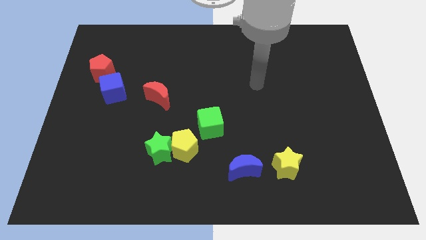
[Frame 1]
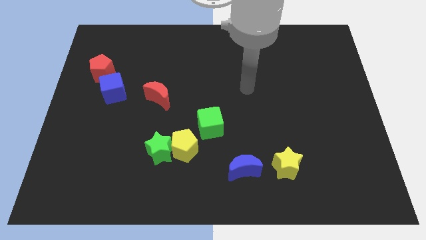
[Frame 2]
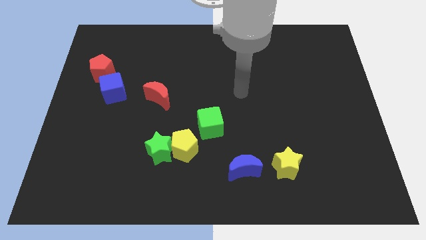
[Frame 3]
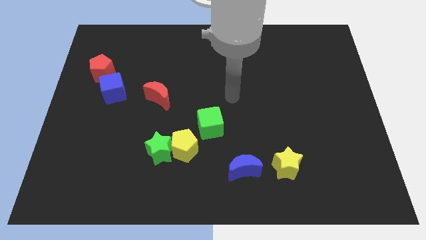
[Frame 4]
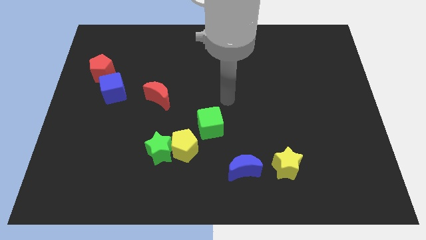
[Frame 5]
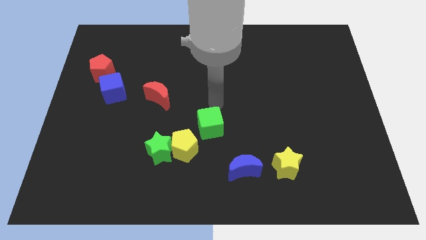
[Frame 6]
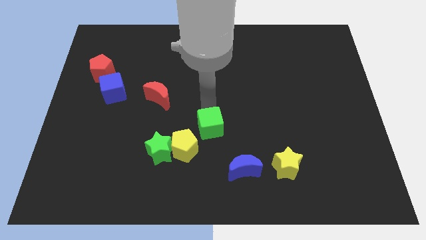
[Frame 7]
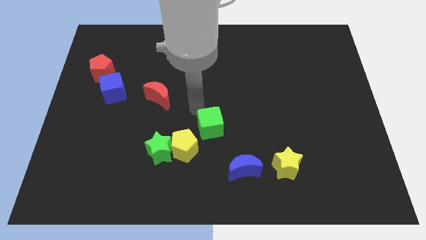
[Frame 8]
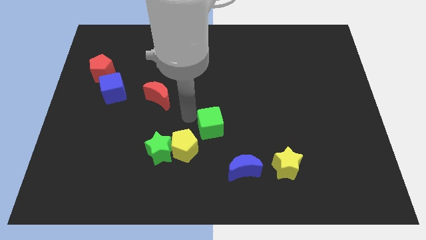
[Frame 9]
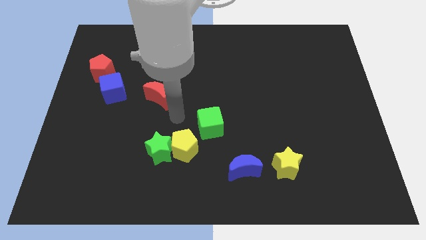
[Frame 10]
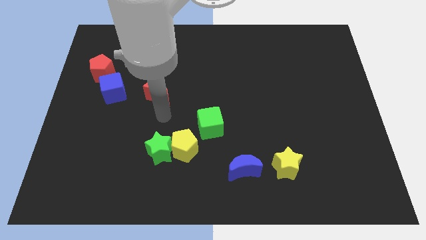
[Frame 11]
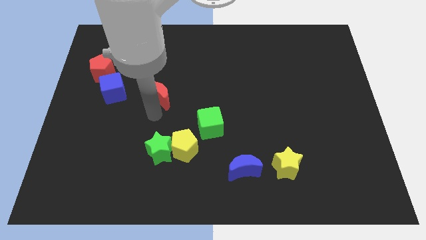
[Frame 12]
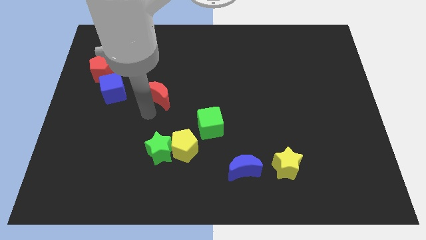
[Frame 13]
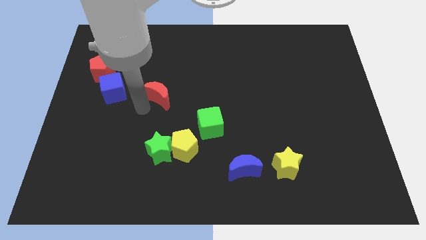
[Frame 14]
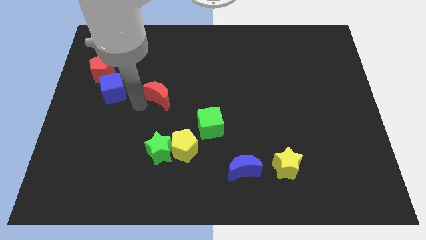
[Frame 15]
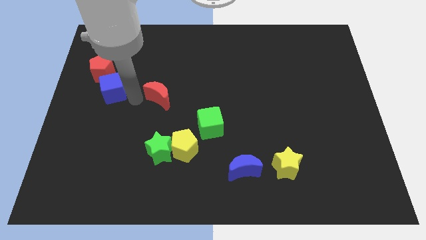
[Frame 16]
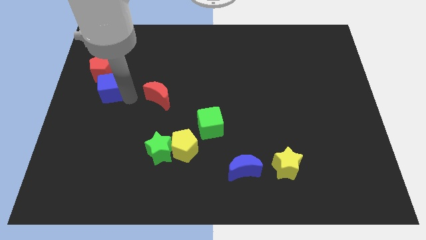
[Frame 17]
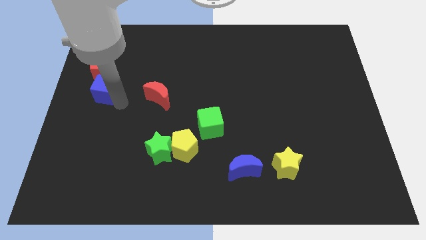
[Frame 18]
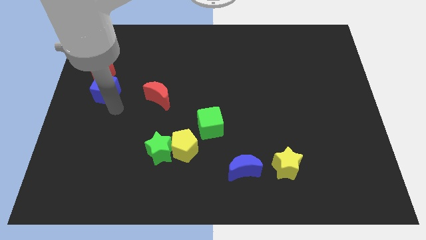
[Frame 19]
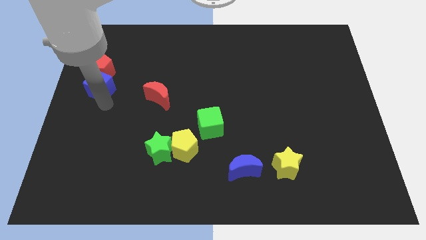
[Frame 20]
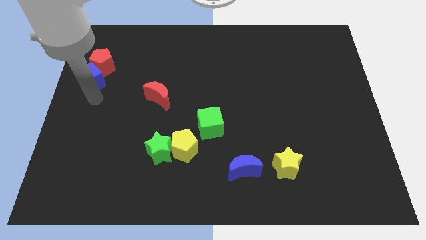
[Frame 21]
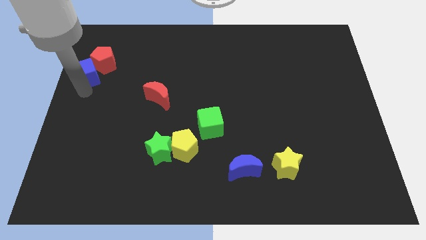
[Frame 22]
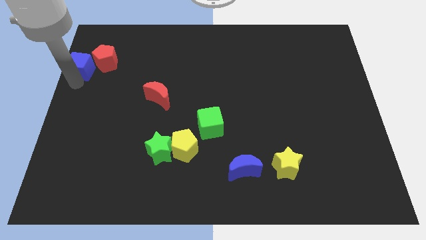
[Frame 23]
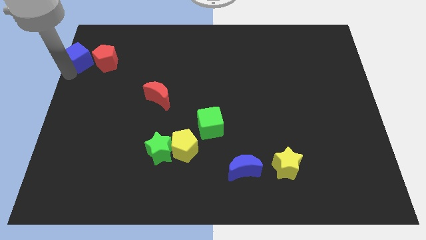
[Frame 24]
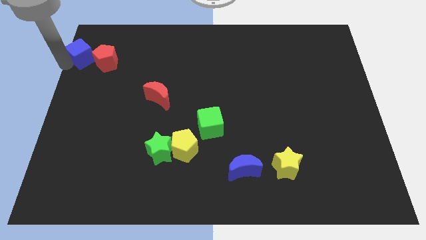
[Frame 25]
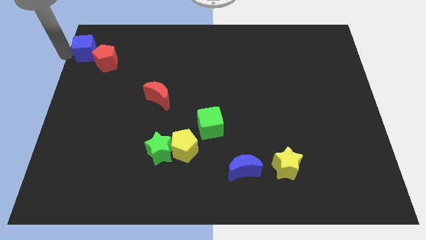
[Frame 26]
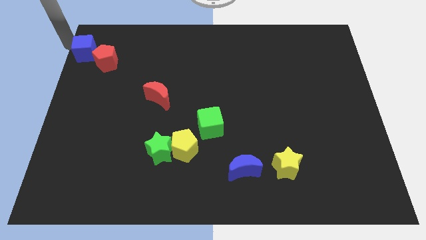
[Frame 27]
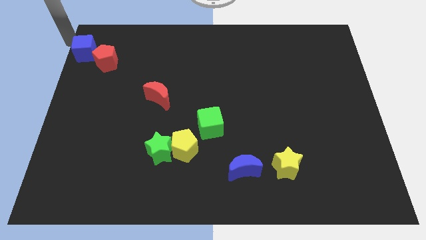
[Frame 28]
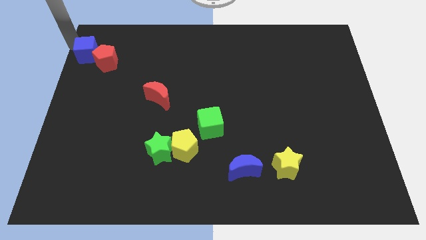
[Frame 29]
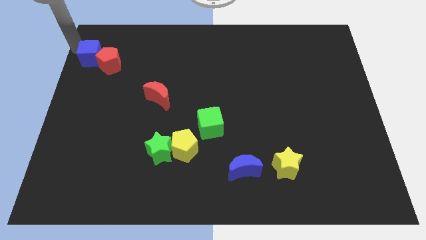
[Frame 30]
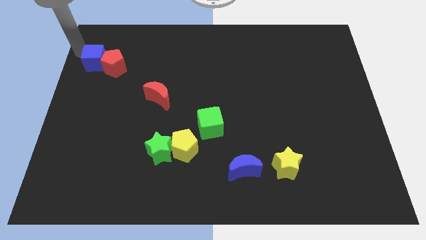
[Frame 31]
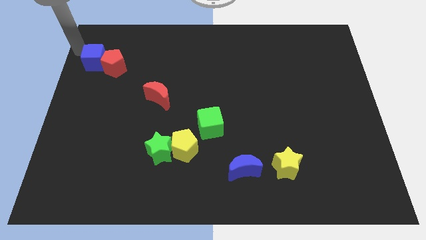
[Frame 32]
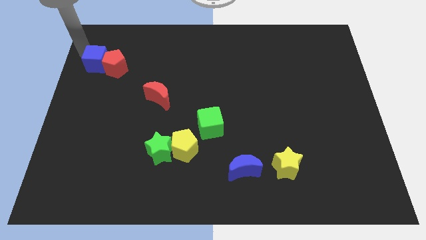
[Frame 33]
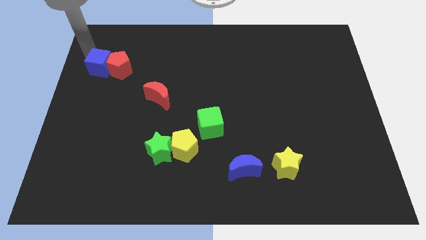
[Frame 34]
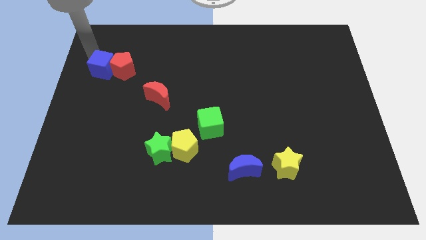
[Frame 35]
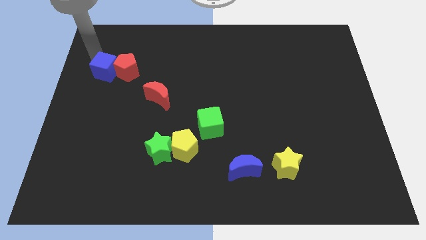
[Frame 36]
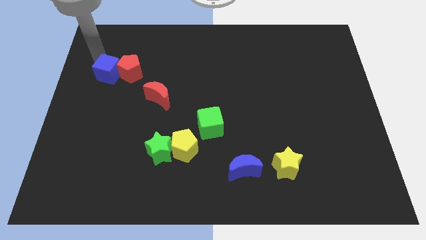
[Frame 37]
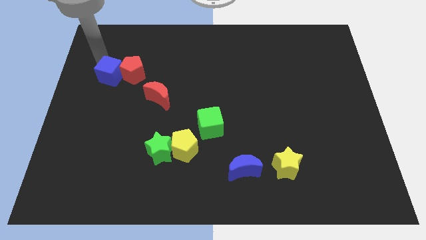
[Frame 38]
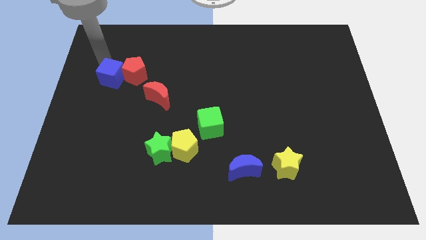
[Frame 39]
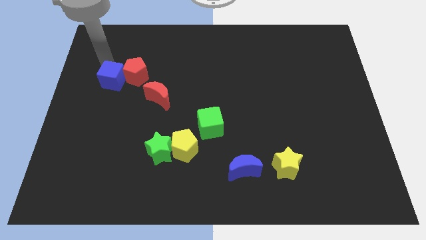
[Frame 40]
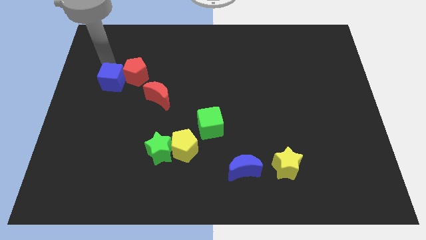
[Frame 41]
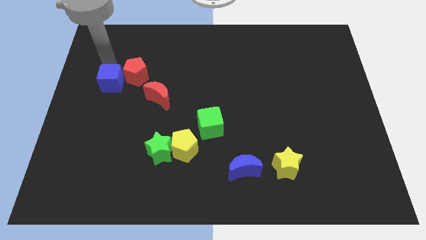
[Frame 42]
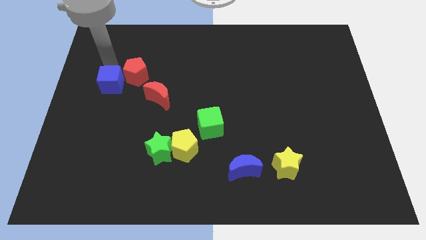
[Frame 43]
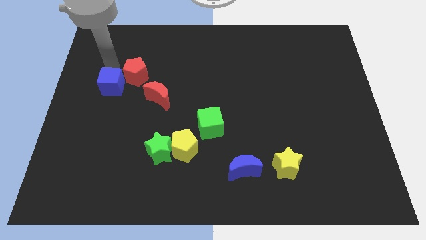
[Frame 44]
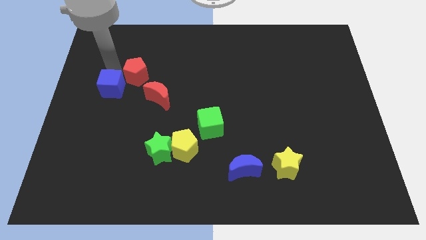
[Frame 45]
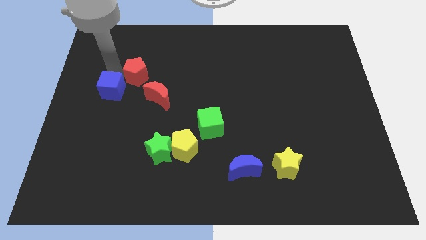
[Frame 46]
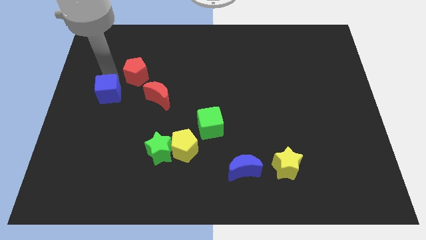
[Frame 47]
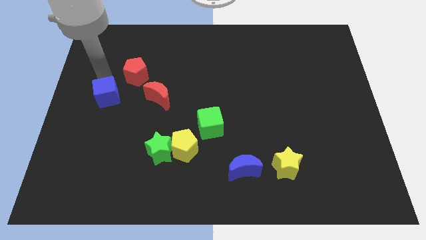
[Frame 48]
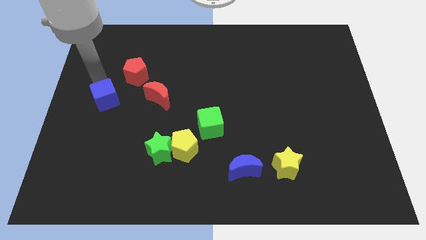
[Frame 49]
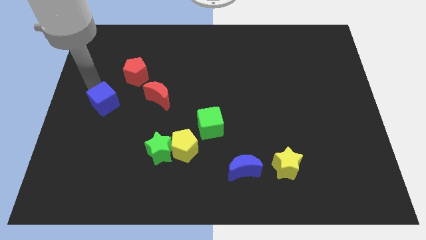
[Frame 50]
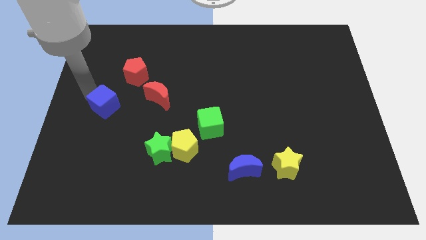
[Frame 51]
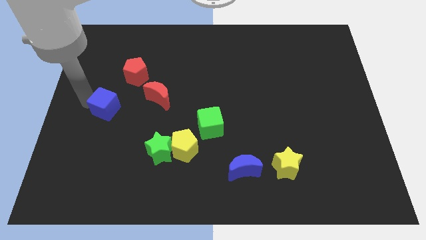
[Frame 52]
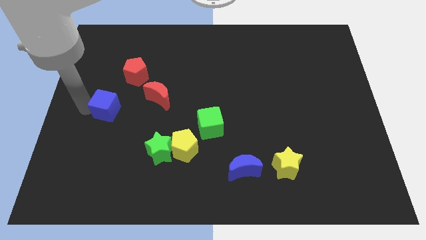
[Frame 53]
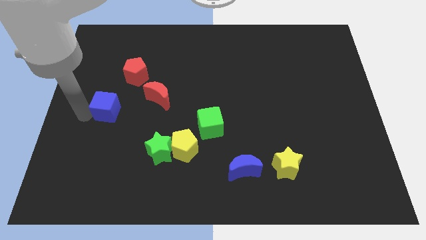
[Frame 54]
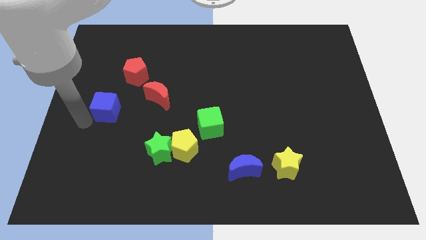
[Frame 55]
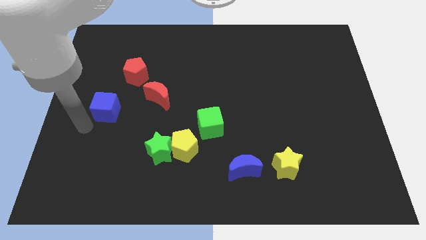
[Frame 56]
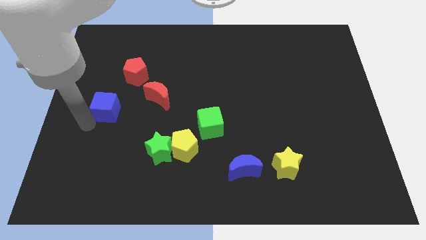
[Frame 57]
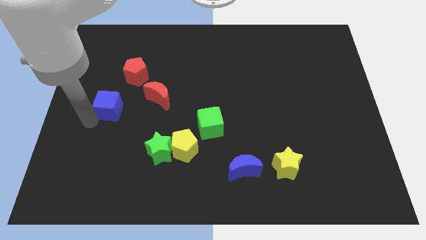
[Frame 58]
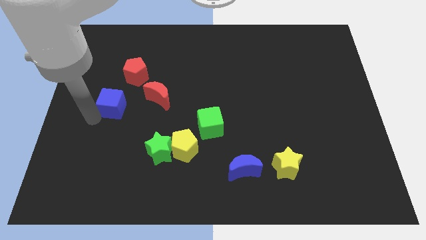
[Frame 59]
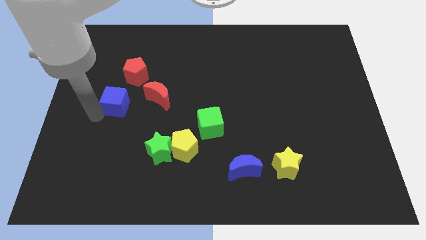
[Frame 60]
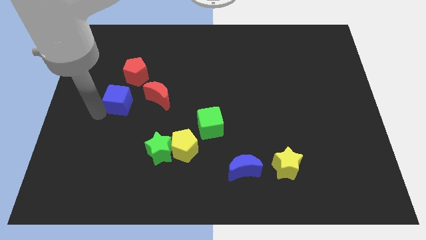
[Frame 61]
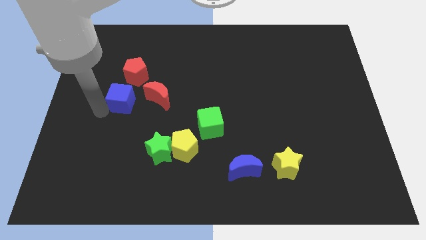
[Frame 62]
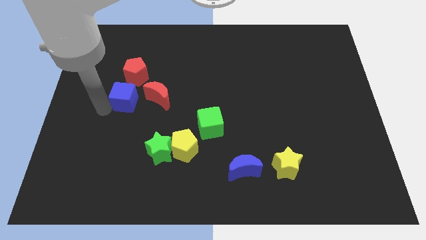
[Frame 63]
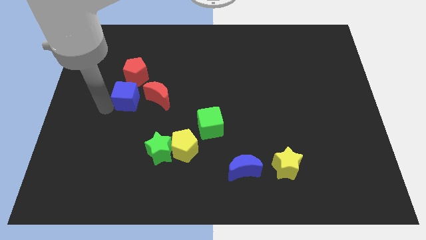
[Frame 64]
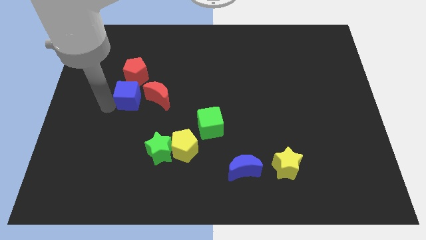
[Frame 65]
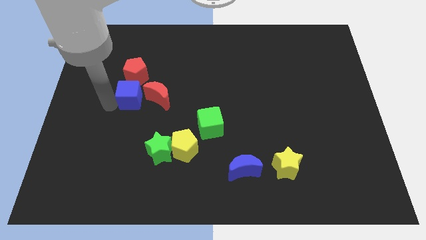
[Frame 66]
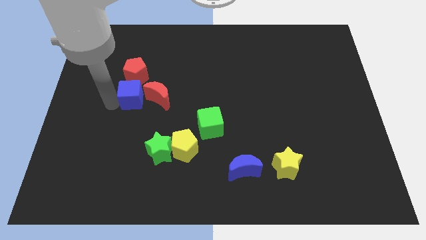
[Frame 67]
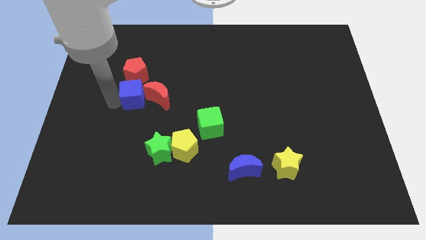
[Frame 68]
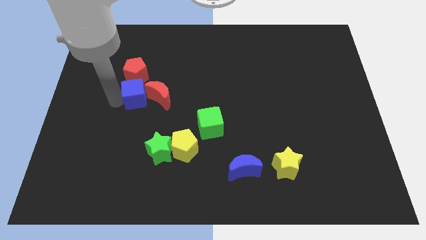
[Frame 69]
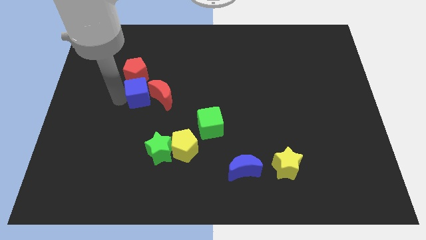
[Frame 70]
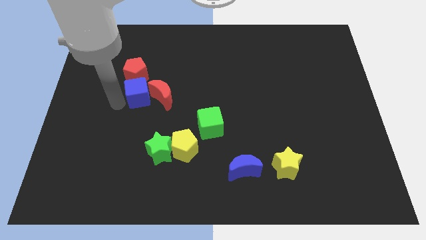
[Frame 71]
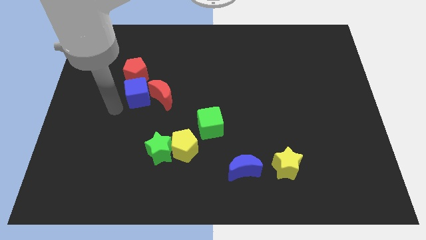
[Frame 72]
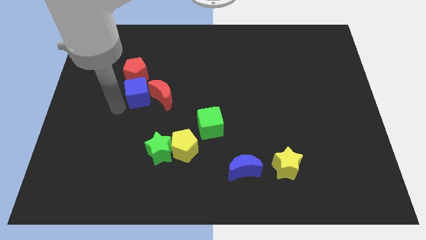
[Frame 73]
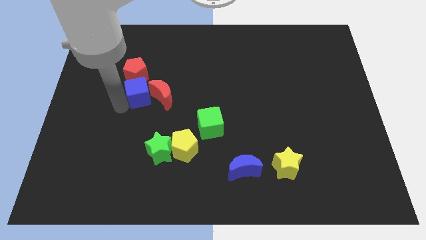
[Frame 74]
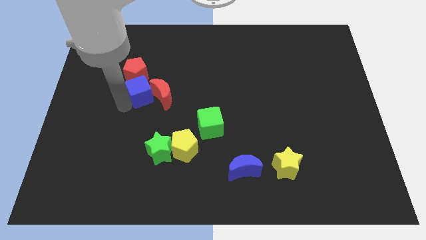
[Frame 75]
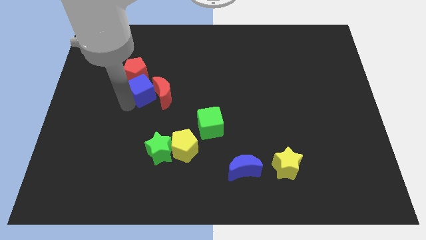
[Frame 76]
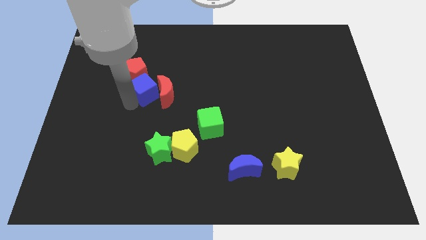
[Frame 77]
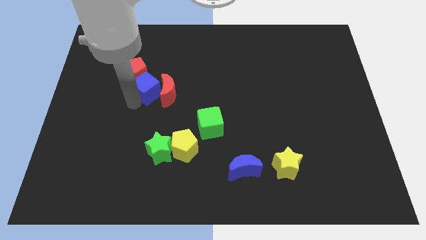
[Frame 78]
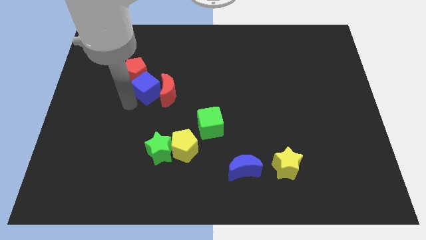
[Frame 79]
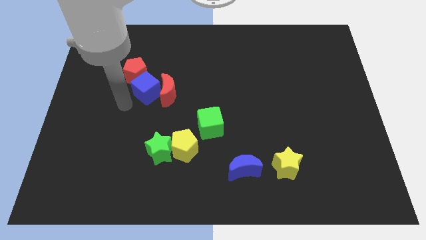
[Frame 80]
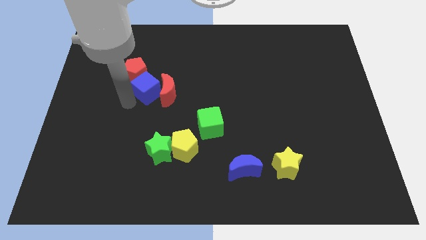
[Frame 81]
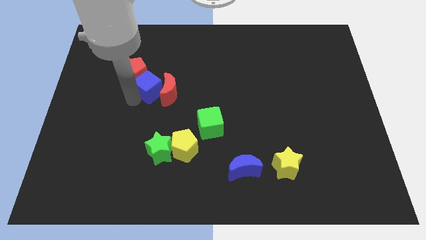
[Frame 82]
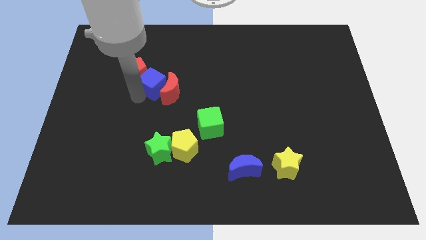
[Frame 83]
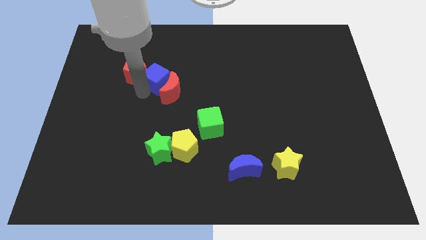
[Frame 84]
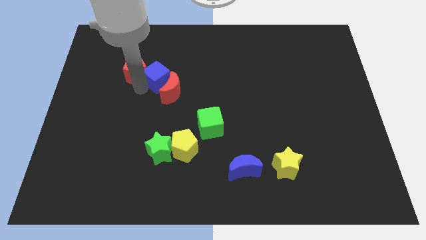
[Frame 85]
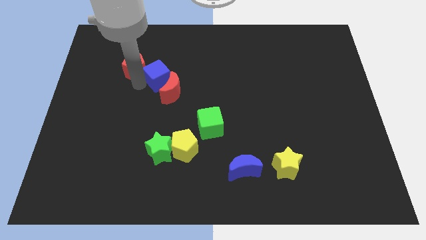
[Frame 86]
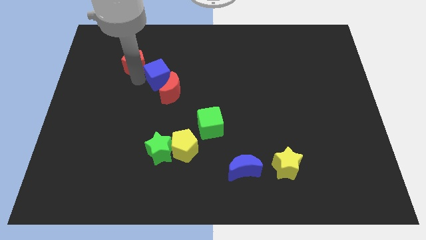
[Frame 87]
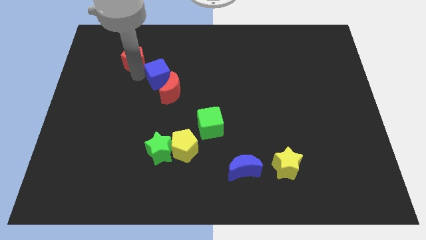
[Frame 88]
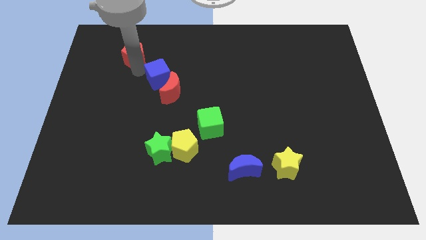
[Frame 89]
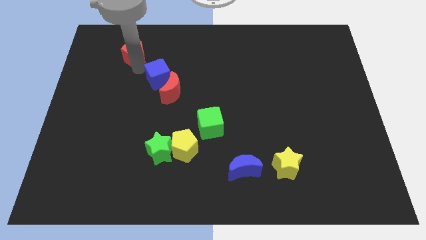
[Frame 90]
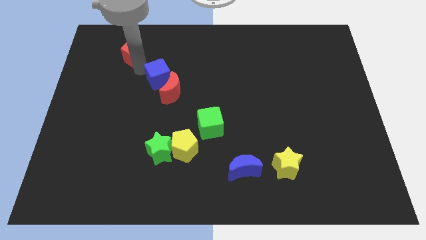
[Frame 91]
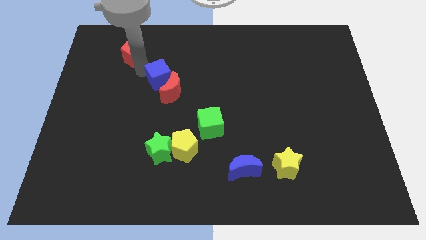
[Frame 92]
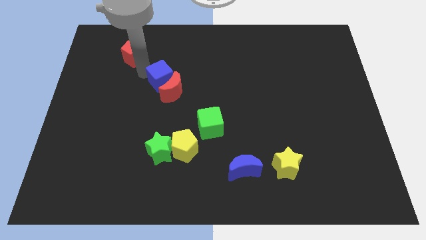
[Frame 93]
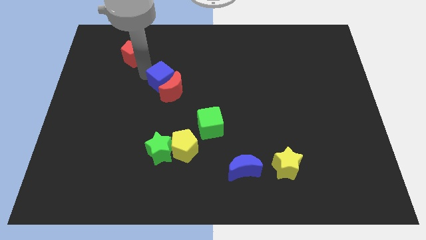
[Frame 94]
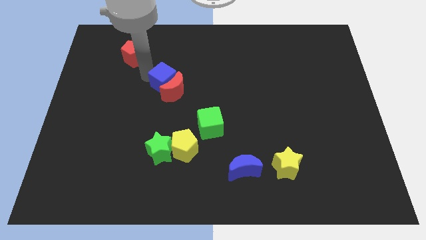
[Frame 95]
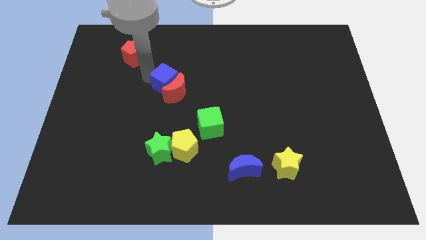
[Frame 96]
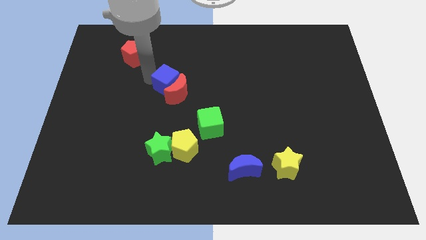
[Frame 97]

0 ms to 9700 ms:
slide the blue cube to the center
